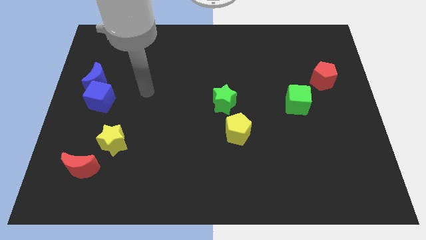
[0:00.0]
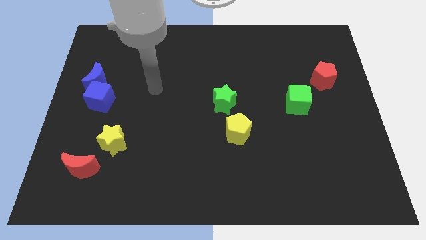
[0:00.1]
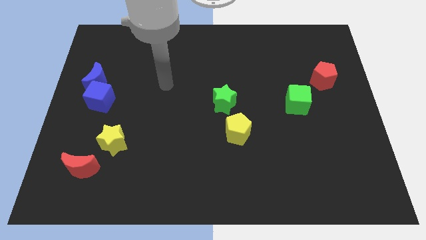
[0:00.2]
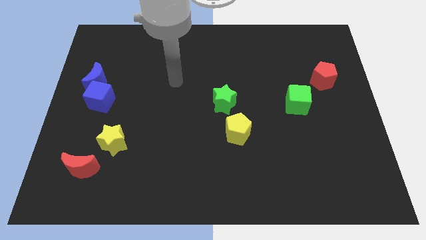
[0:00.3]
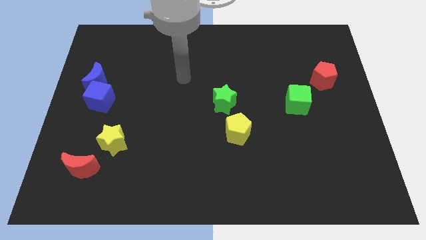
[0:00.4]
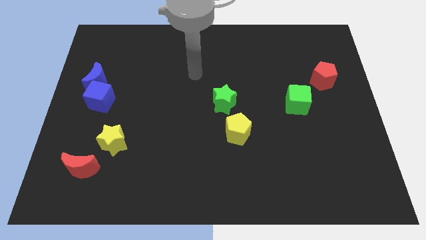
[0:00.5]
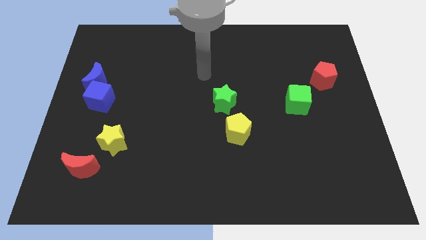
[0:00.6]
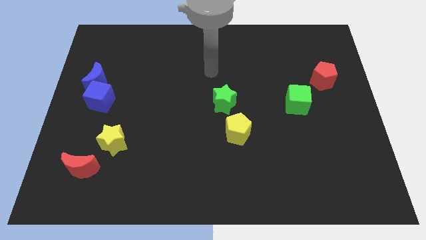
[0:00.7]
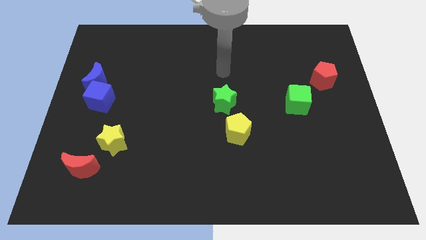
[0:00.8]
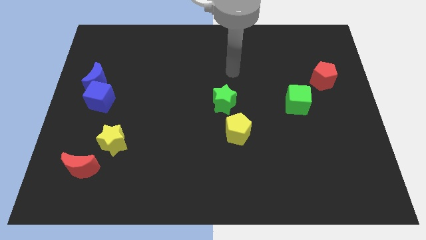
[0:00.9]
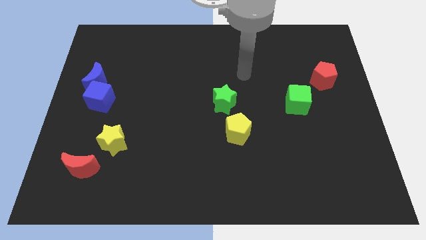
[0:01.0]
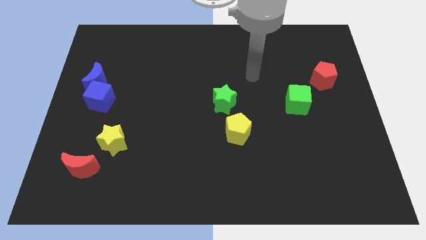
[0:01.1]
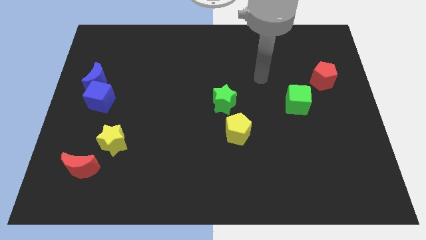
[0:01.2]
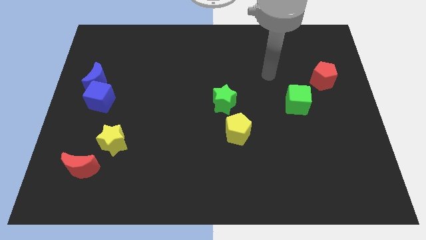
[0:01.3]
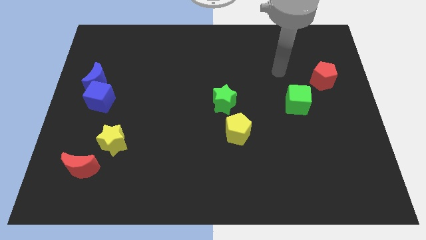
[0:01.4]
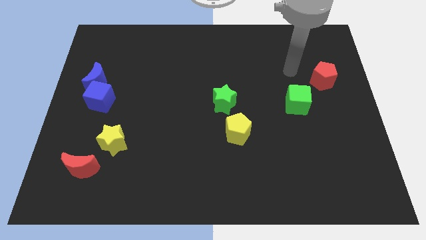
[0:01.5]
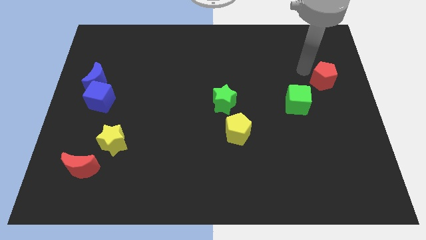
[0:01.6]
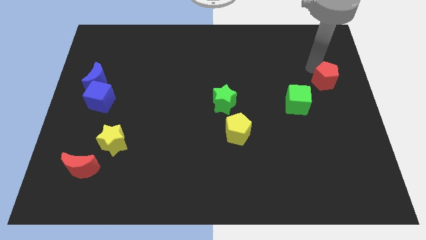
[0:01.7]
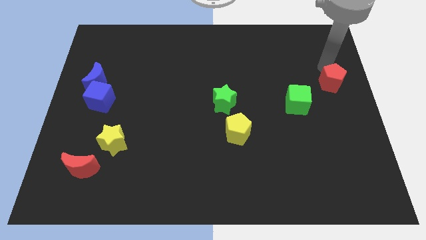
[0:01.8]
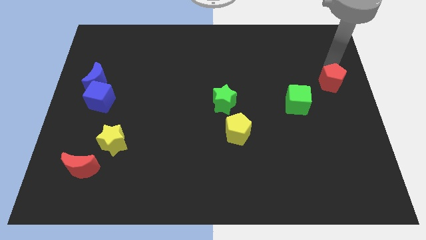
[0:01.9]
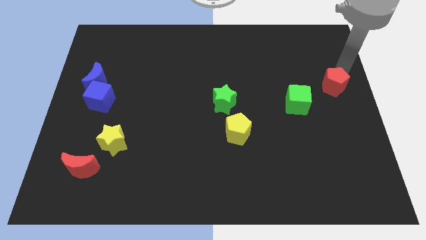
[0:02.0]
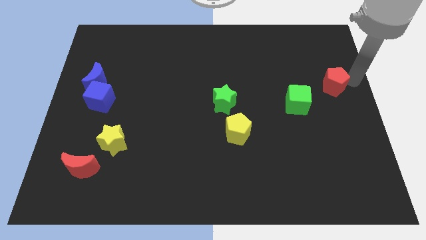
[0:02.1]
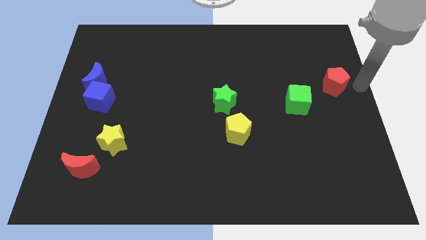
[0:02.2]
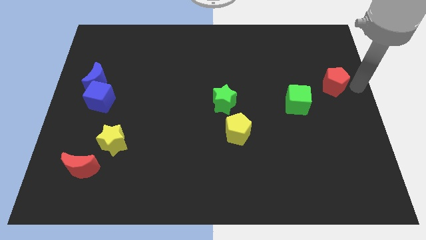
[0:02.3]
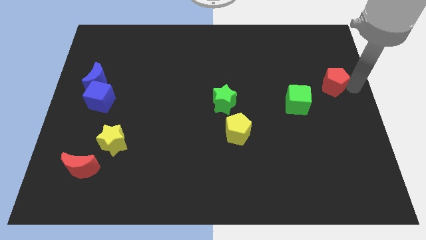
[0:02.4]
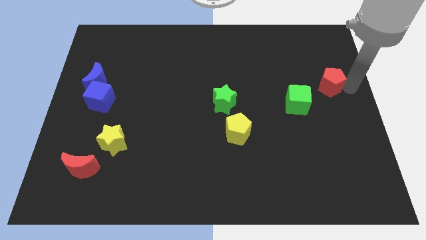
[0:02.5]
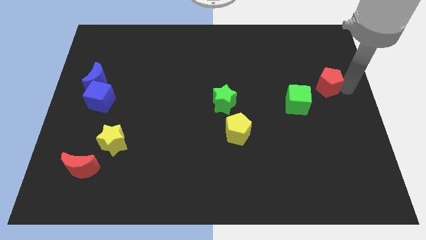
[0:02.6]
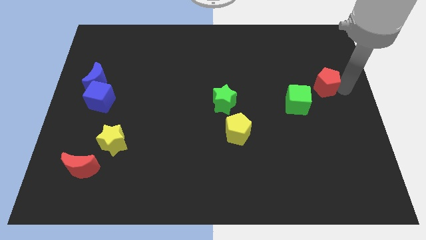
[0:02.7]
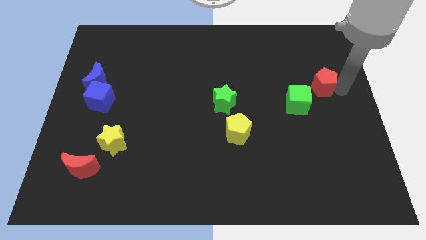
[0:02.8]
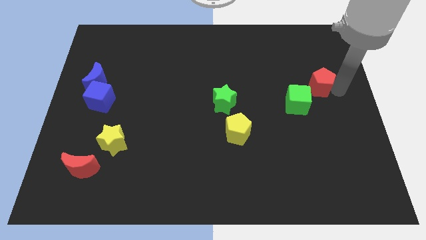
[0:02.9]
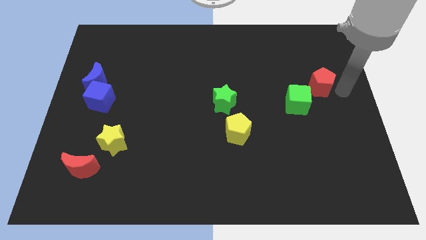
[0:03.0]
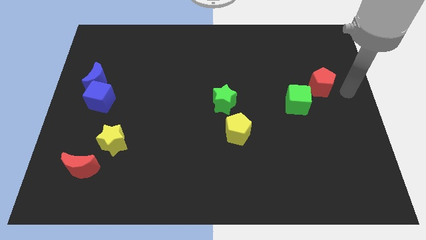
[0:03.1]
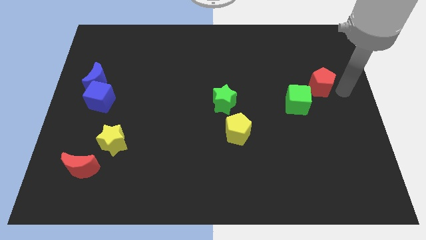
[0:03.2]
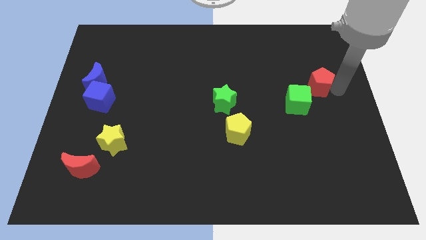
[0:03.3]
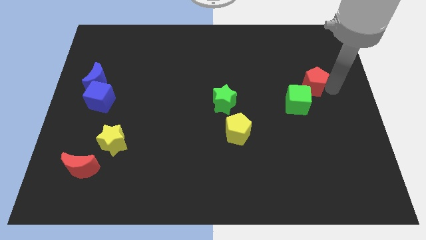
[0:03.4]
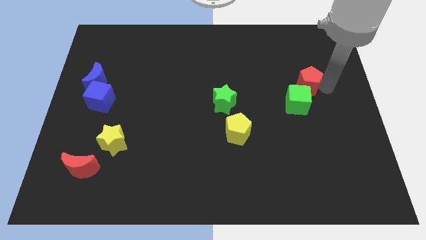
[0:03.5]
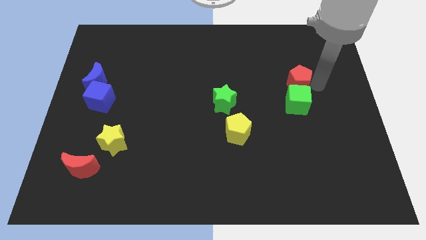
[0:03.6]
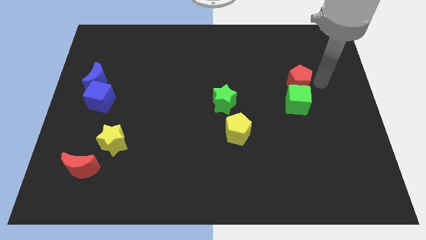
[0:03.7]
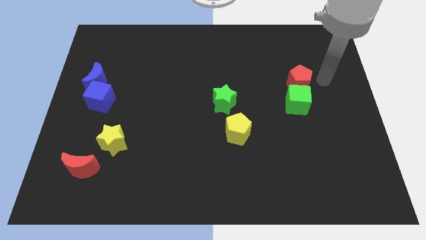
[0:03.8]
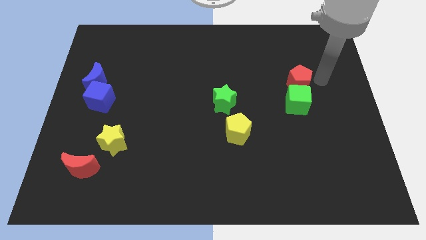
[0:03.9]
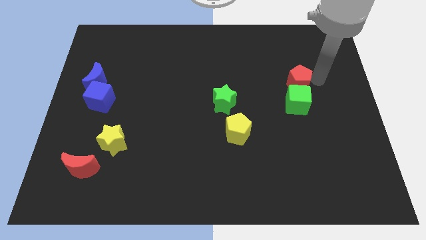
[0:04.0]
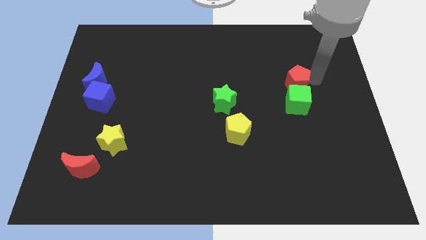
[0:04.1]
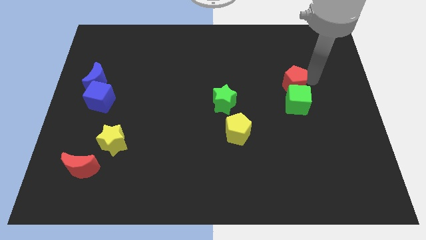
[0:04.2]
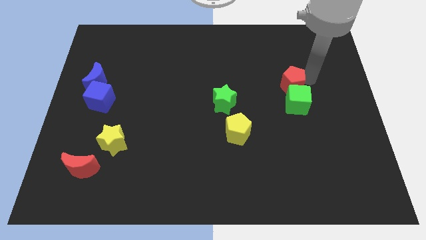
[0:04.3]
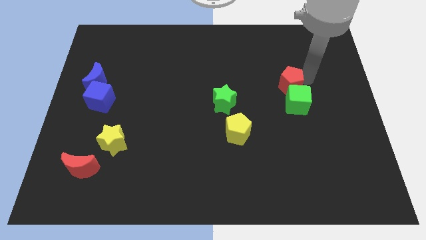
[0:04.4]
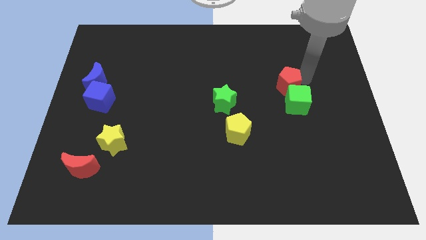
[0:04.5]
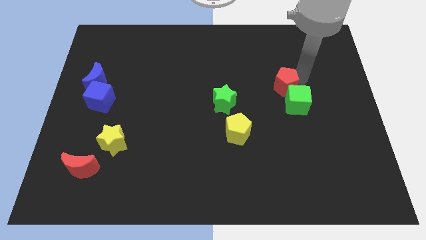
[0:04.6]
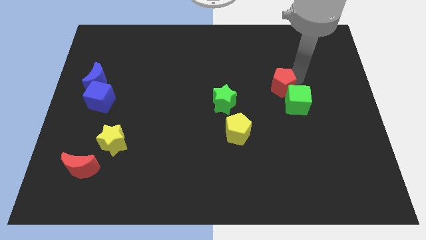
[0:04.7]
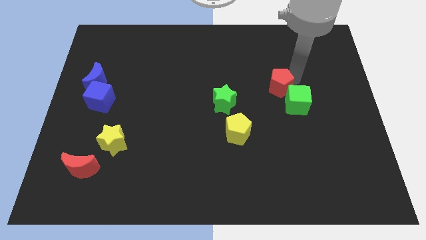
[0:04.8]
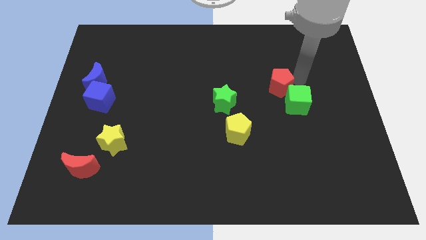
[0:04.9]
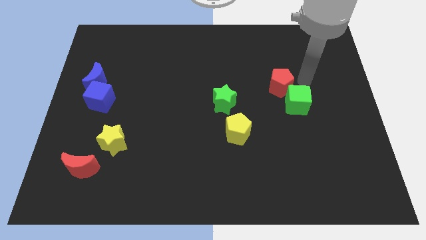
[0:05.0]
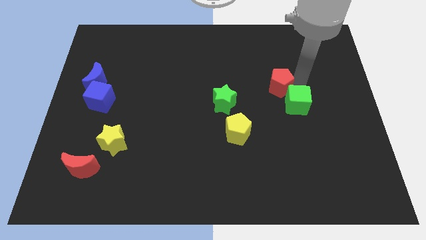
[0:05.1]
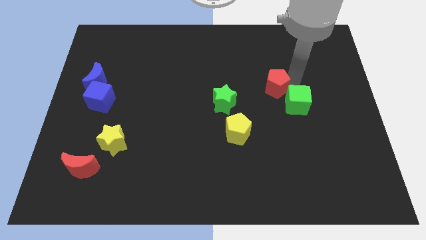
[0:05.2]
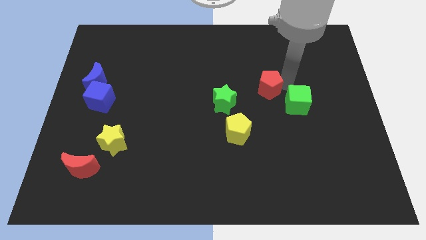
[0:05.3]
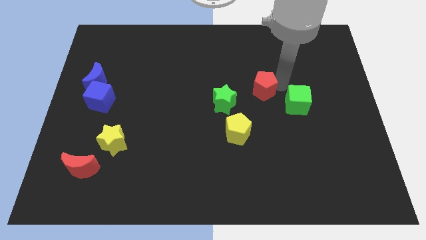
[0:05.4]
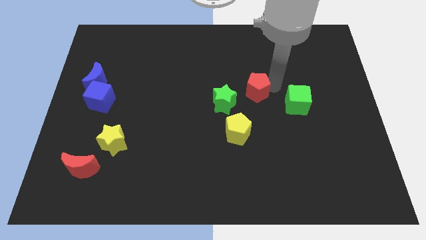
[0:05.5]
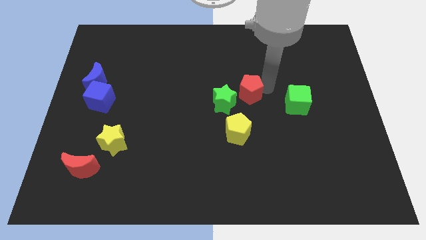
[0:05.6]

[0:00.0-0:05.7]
move the red pentagon to the top of the yellow pentagon

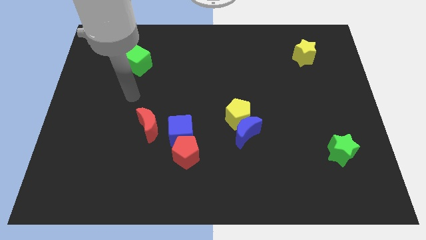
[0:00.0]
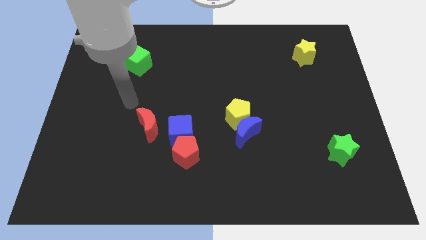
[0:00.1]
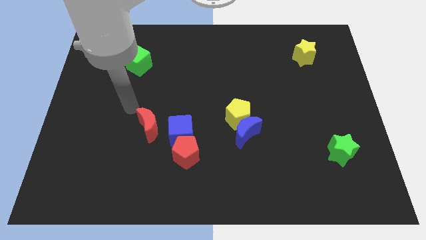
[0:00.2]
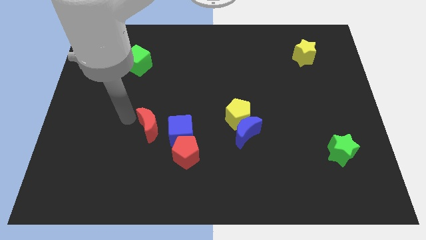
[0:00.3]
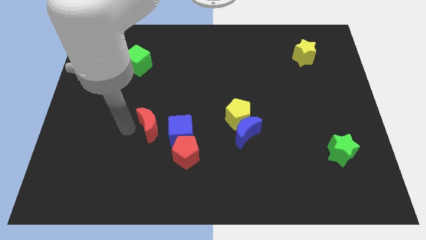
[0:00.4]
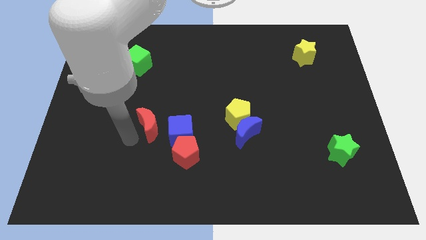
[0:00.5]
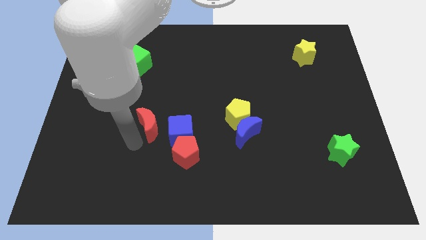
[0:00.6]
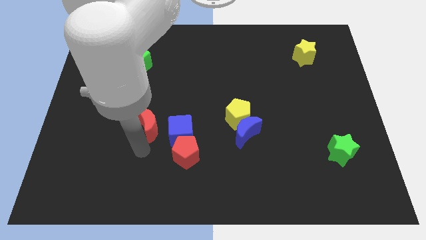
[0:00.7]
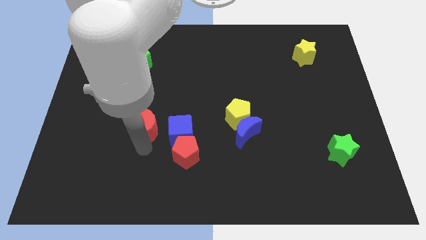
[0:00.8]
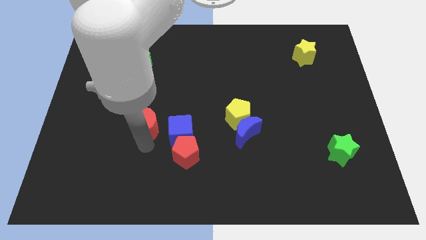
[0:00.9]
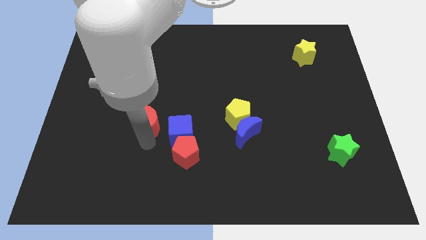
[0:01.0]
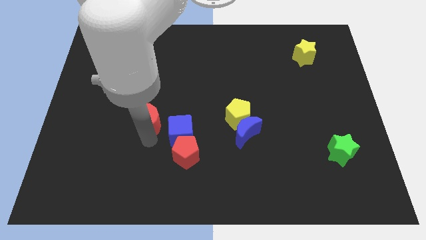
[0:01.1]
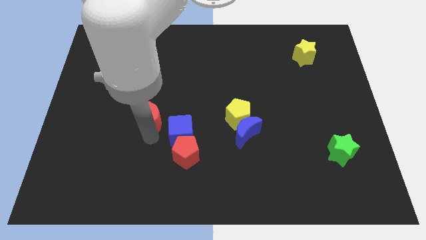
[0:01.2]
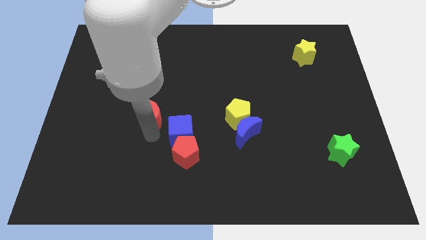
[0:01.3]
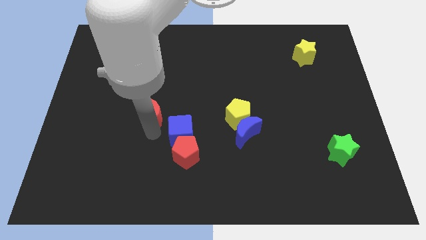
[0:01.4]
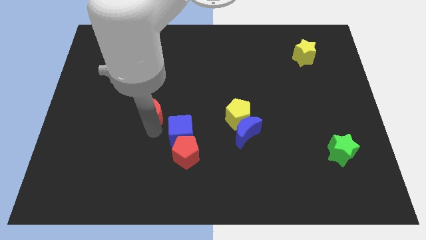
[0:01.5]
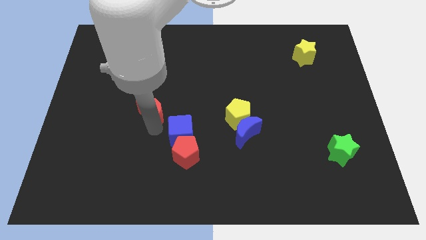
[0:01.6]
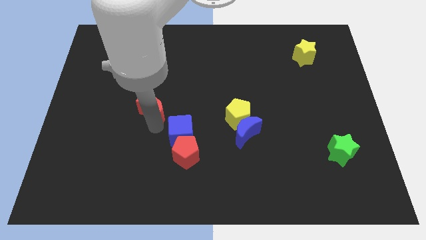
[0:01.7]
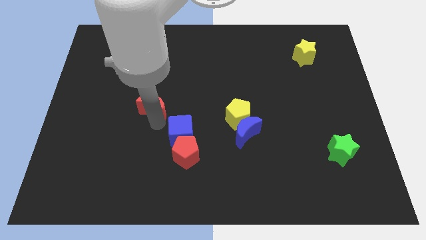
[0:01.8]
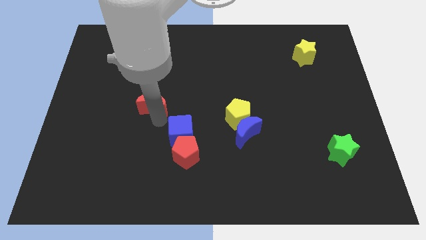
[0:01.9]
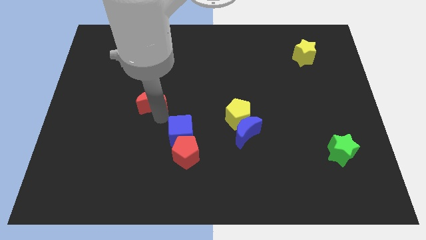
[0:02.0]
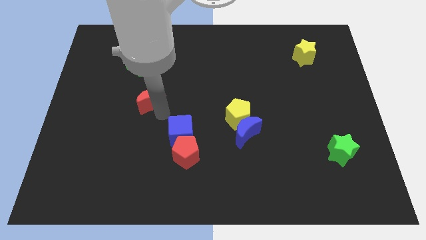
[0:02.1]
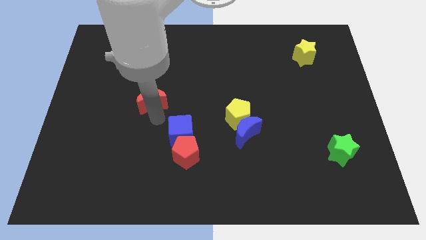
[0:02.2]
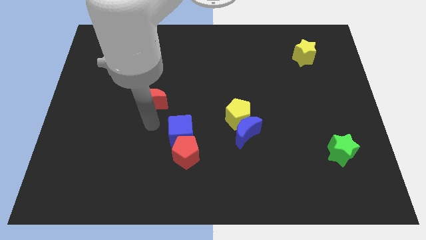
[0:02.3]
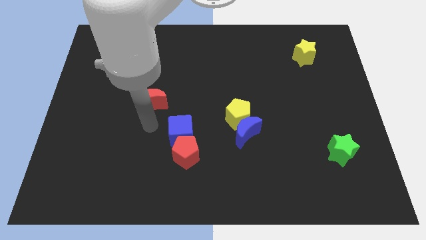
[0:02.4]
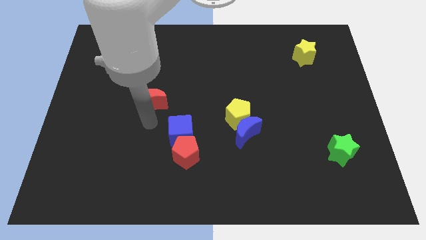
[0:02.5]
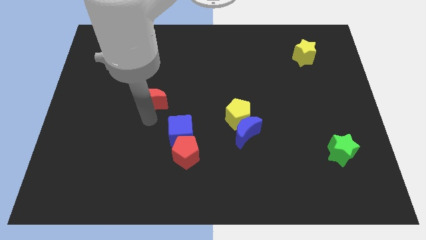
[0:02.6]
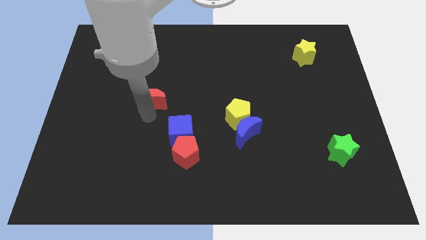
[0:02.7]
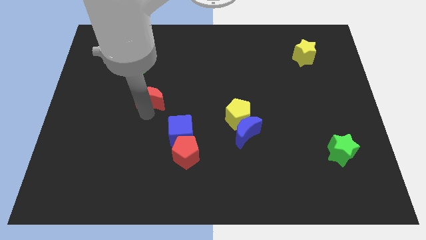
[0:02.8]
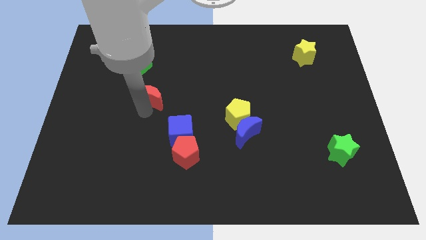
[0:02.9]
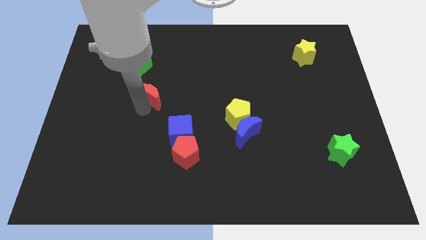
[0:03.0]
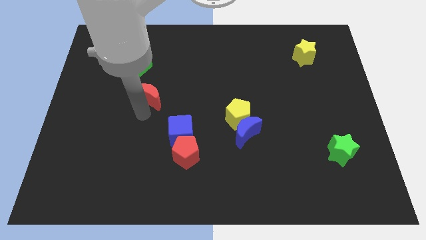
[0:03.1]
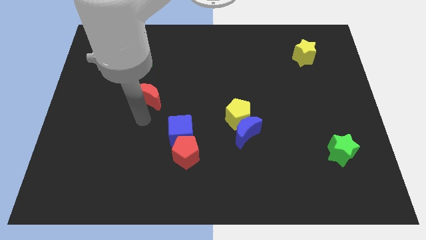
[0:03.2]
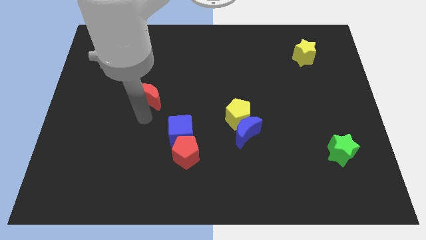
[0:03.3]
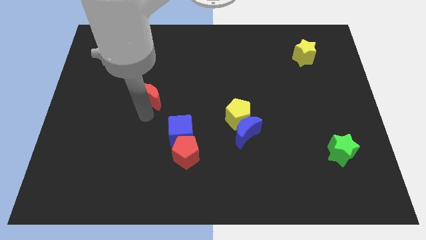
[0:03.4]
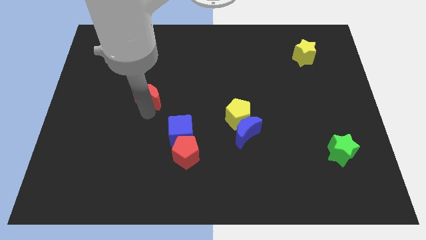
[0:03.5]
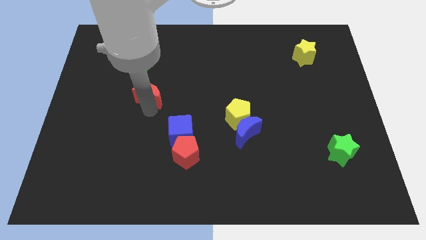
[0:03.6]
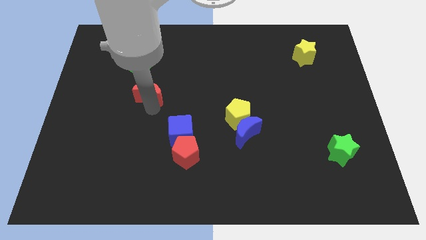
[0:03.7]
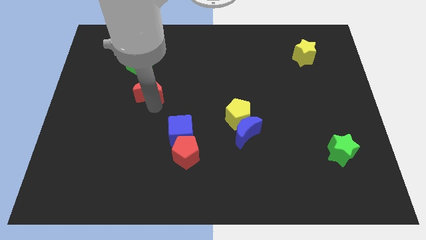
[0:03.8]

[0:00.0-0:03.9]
put the red moon diagonally down and to the right of the green cube
